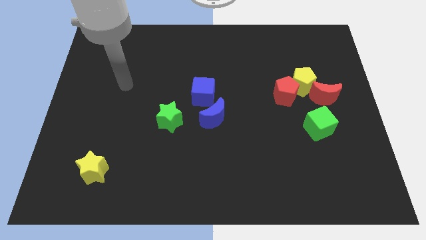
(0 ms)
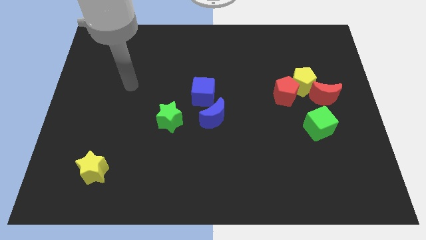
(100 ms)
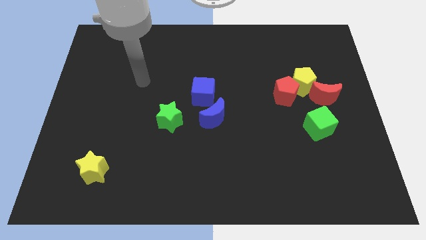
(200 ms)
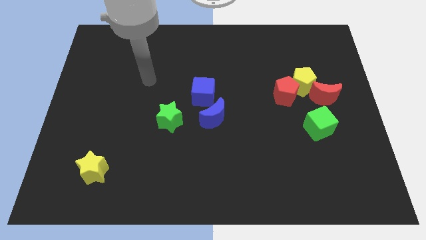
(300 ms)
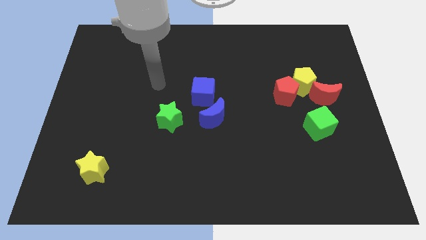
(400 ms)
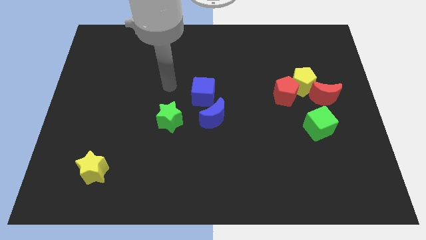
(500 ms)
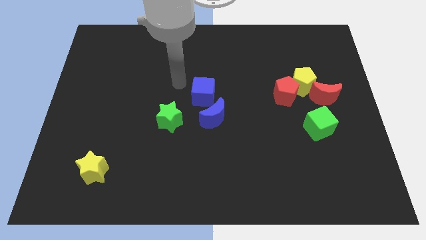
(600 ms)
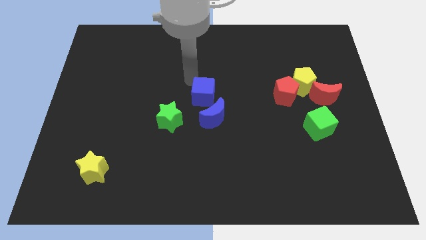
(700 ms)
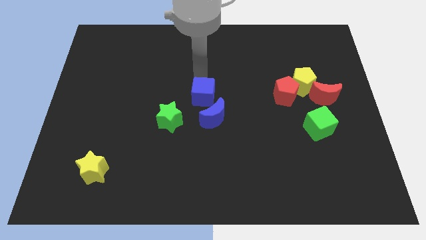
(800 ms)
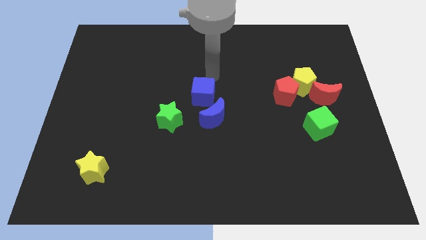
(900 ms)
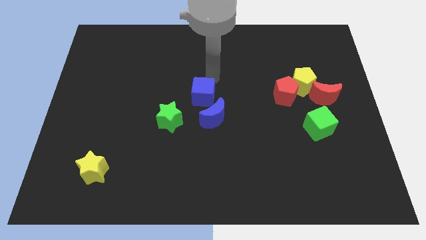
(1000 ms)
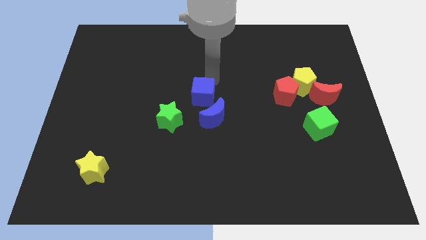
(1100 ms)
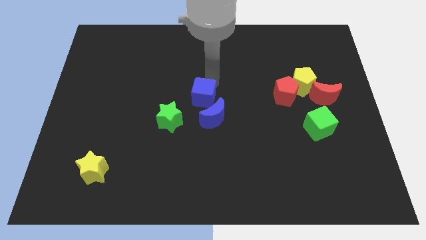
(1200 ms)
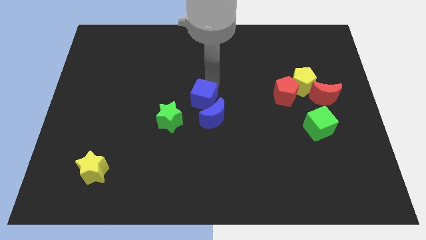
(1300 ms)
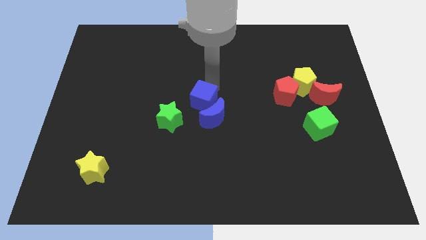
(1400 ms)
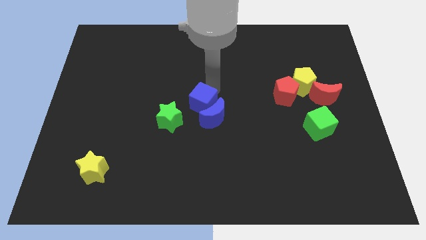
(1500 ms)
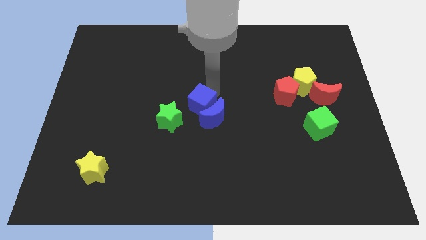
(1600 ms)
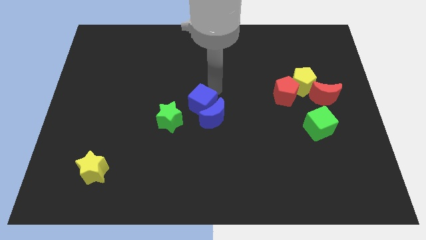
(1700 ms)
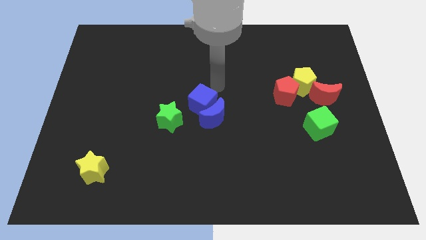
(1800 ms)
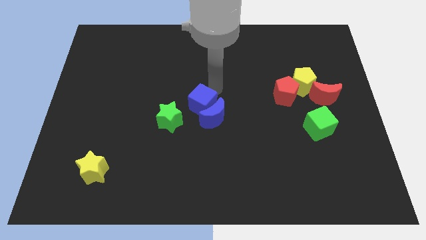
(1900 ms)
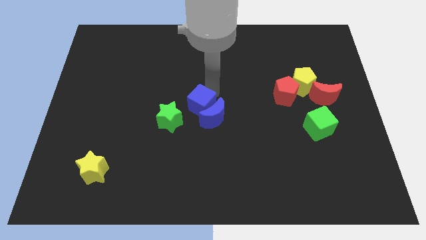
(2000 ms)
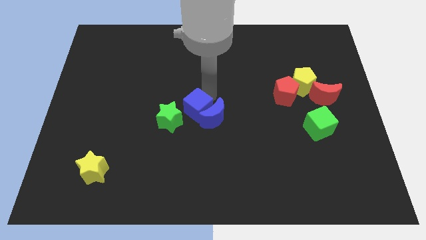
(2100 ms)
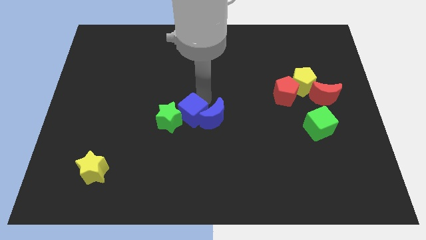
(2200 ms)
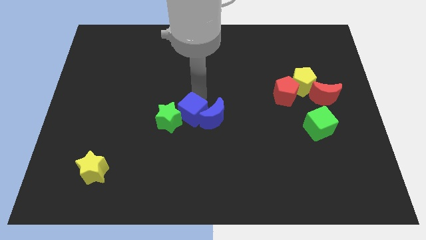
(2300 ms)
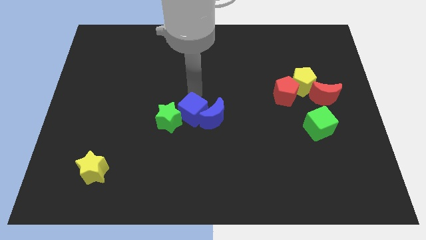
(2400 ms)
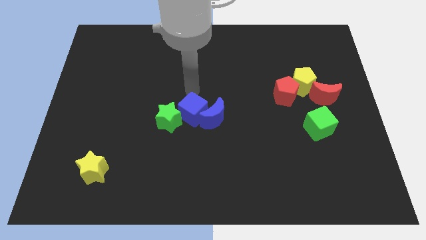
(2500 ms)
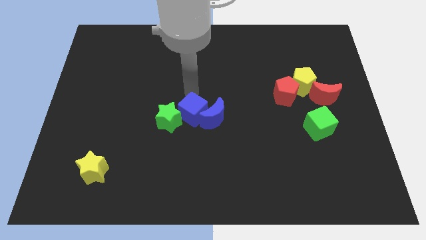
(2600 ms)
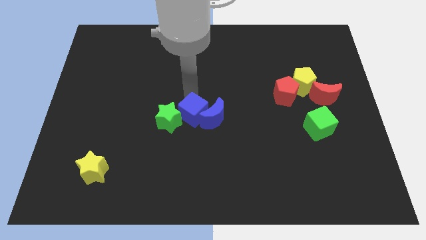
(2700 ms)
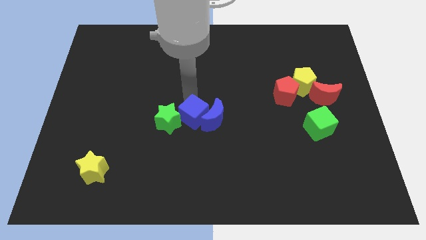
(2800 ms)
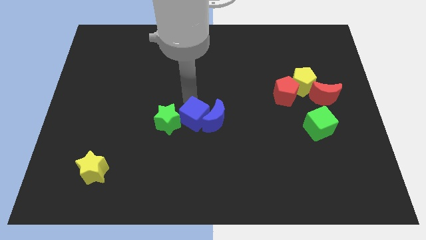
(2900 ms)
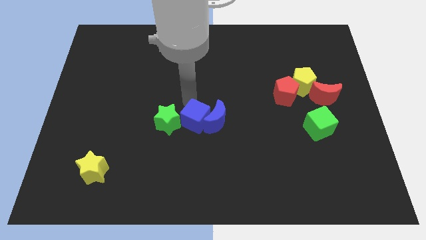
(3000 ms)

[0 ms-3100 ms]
move the blue cube slightly down

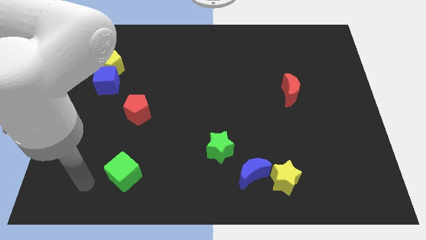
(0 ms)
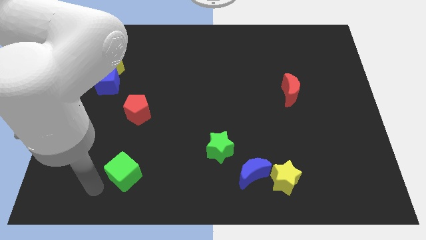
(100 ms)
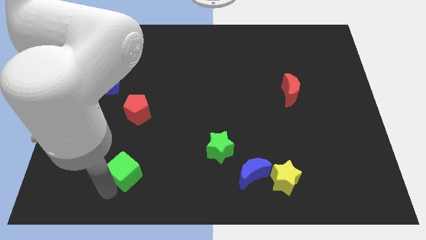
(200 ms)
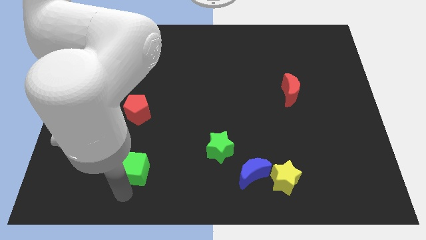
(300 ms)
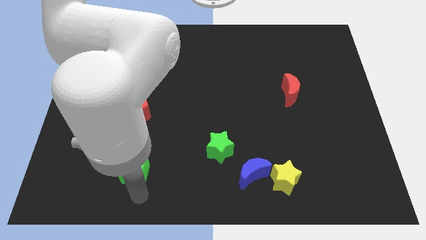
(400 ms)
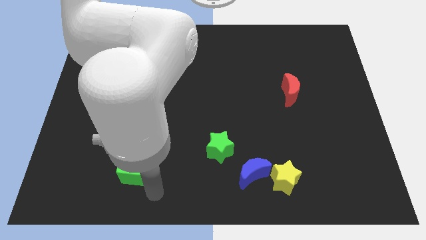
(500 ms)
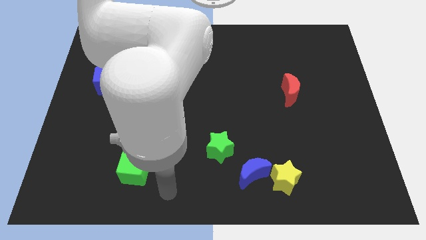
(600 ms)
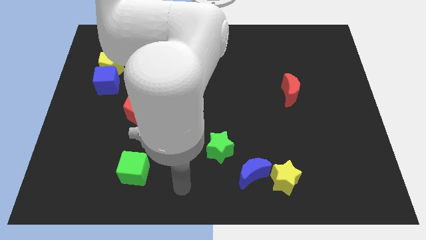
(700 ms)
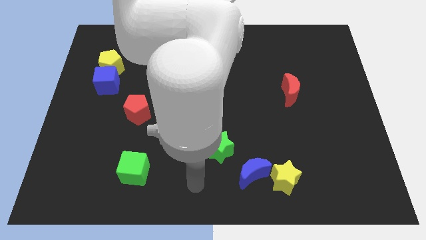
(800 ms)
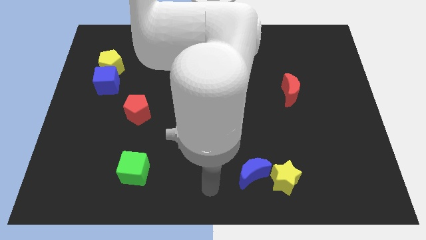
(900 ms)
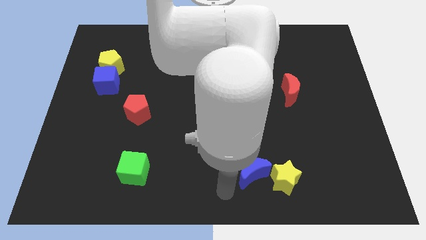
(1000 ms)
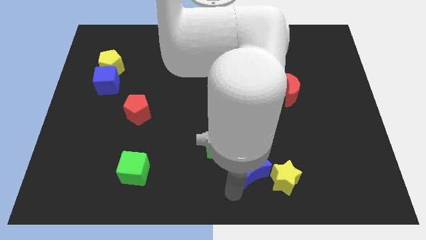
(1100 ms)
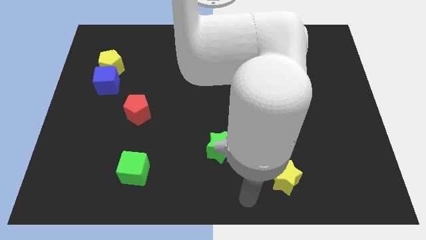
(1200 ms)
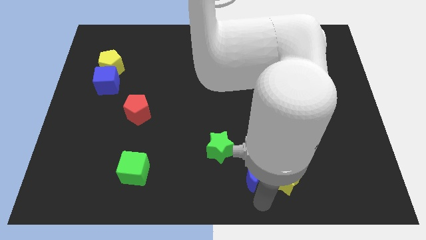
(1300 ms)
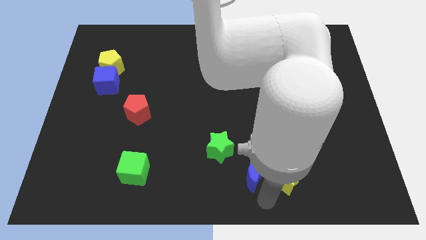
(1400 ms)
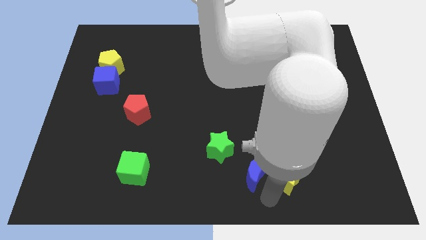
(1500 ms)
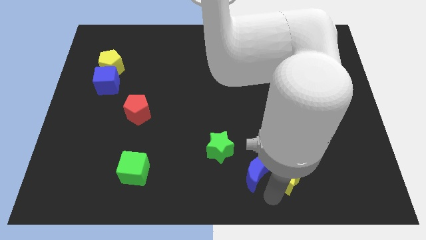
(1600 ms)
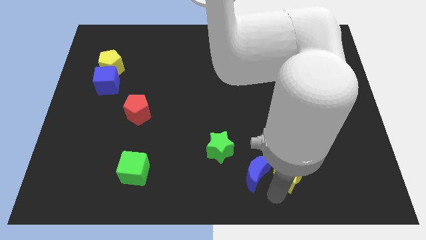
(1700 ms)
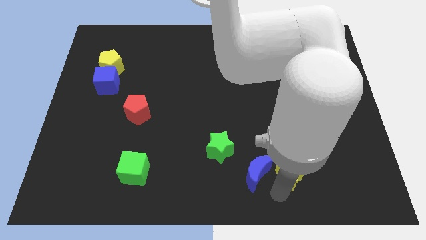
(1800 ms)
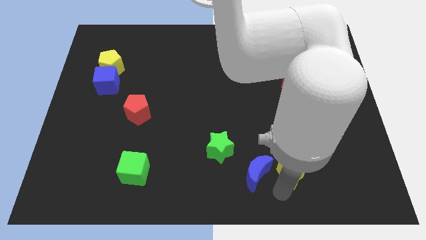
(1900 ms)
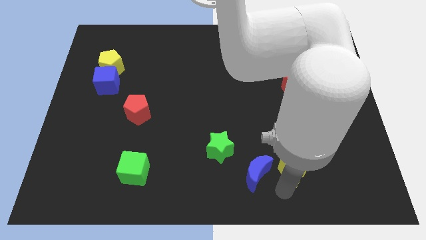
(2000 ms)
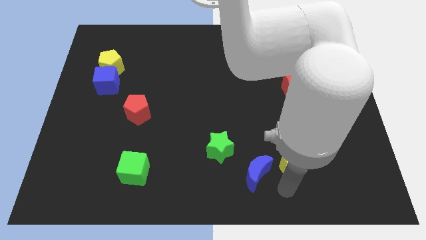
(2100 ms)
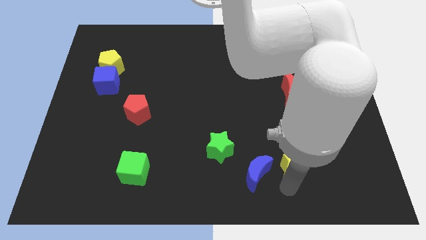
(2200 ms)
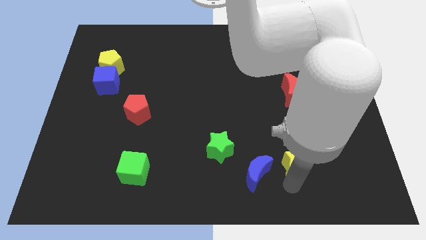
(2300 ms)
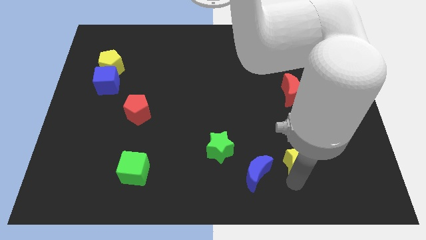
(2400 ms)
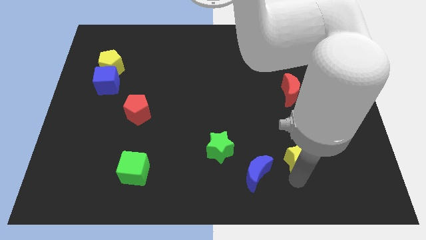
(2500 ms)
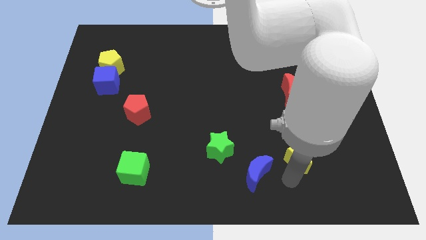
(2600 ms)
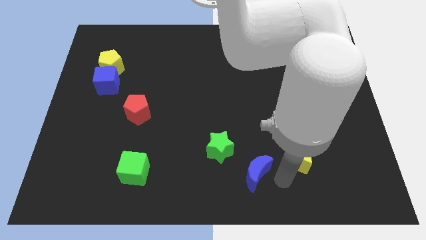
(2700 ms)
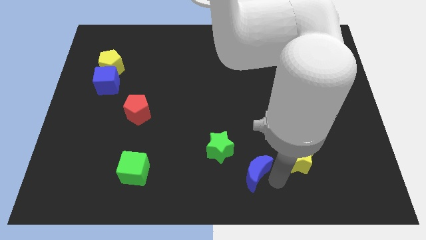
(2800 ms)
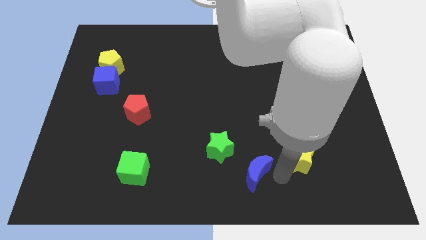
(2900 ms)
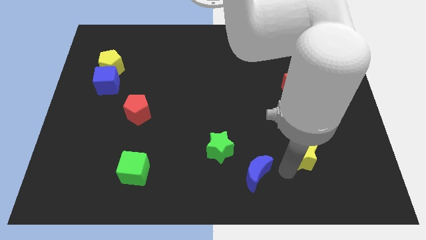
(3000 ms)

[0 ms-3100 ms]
slide the yellow star upwards and then to the right slightly

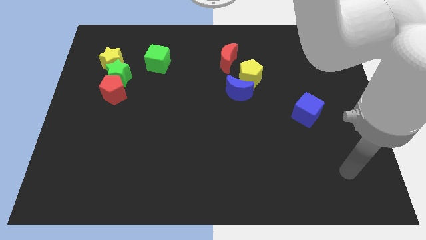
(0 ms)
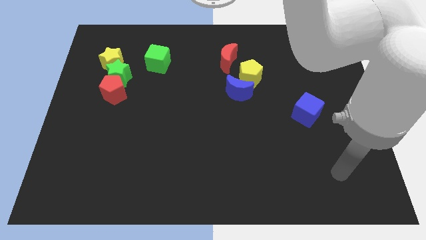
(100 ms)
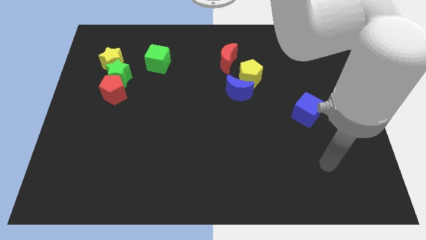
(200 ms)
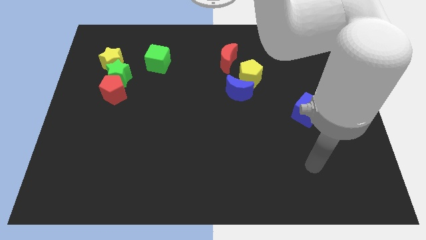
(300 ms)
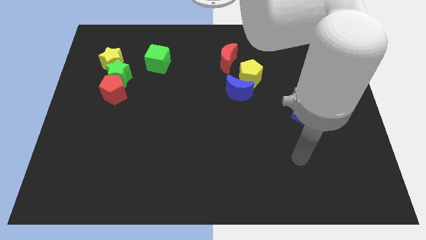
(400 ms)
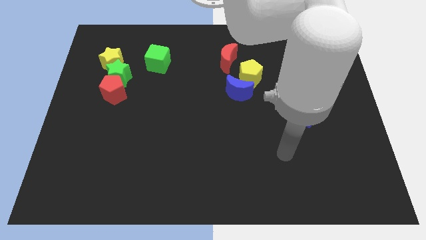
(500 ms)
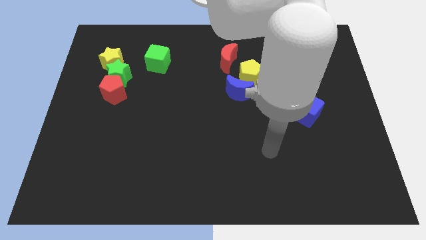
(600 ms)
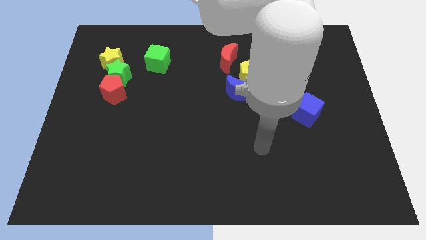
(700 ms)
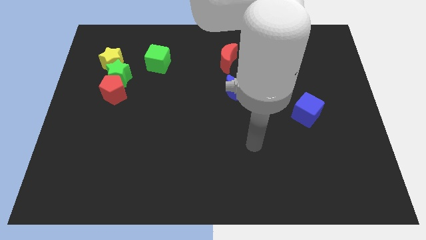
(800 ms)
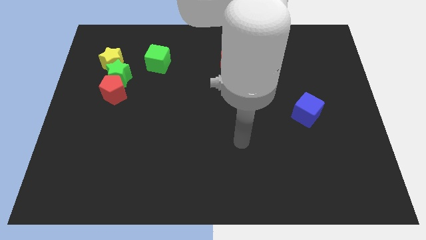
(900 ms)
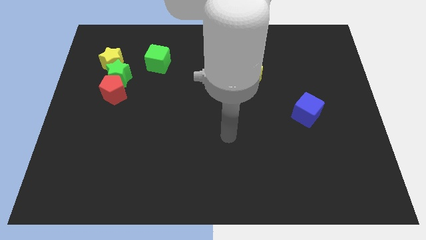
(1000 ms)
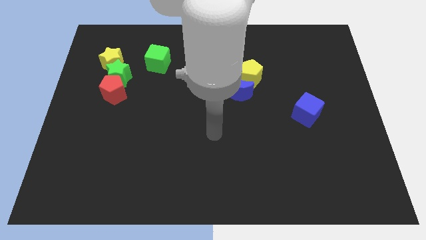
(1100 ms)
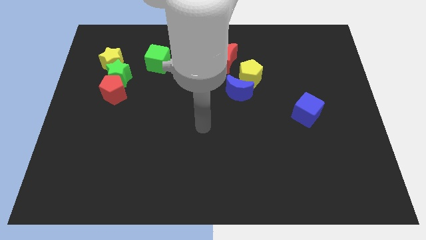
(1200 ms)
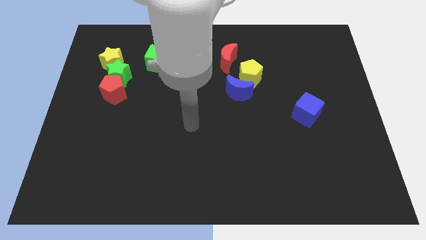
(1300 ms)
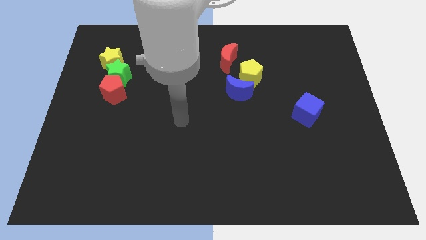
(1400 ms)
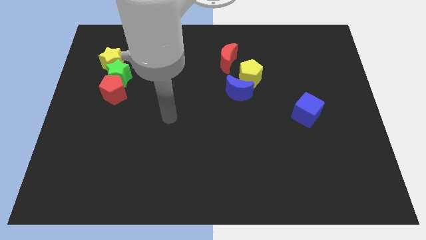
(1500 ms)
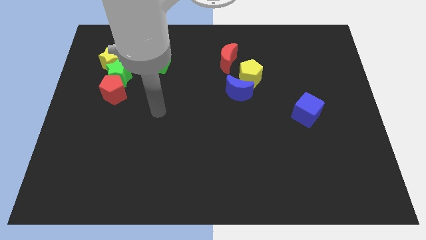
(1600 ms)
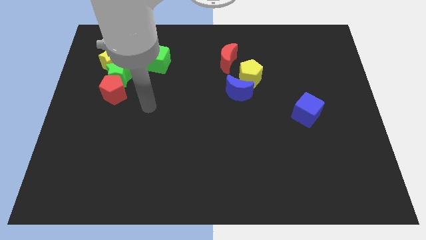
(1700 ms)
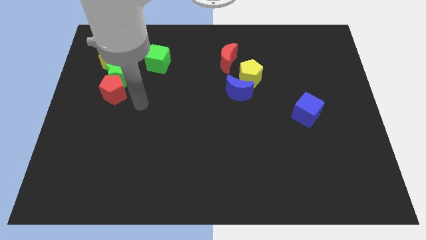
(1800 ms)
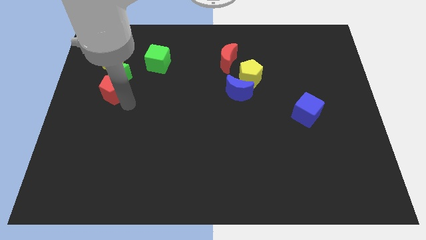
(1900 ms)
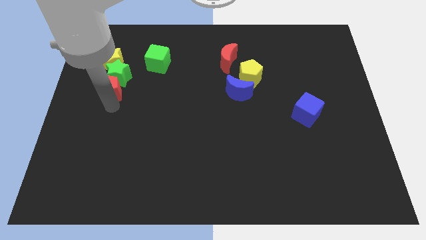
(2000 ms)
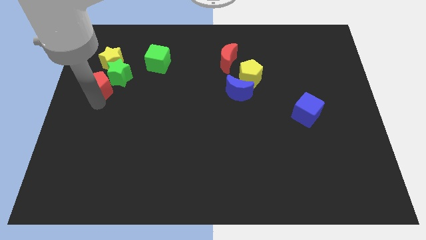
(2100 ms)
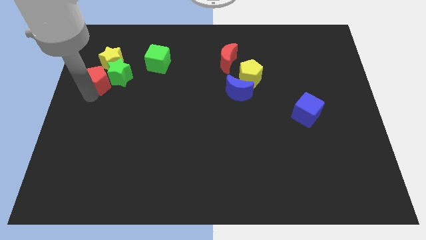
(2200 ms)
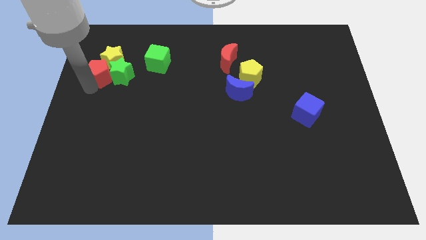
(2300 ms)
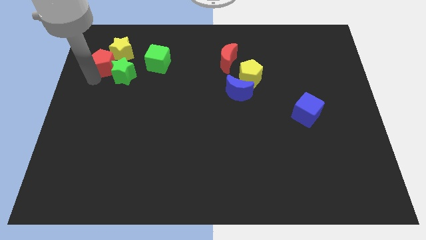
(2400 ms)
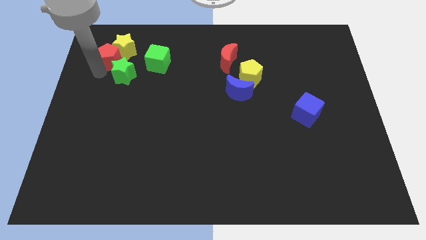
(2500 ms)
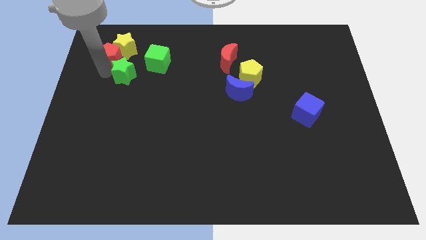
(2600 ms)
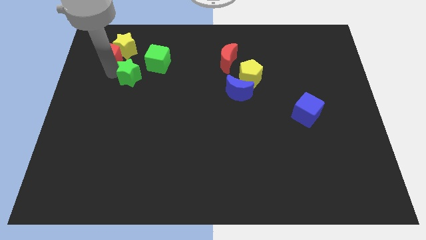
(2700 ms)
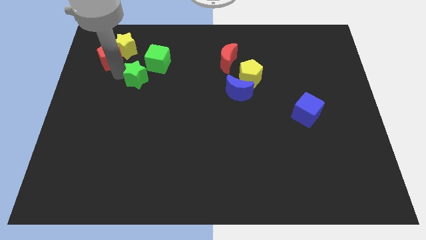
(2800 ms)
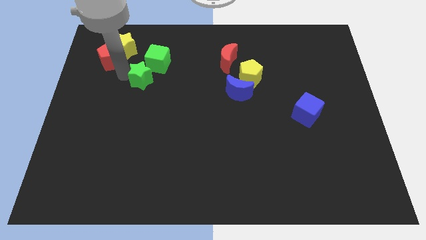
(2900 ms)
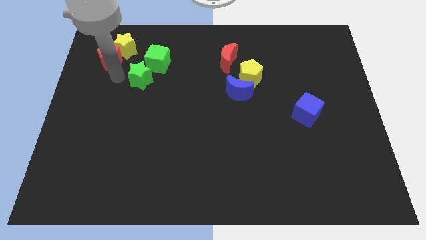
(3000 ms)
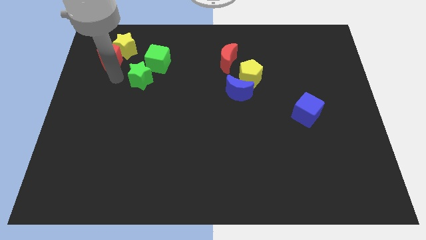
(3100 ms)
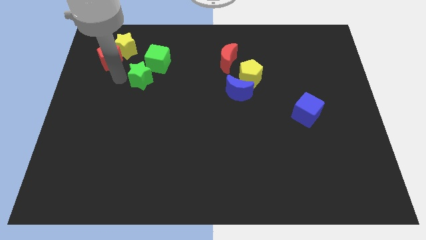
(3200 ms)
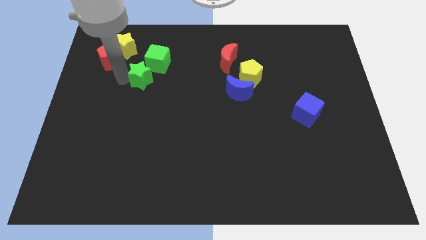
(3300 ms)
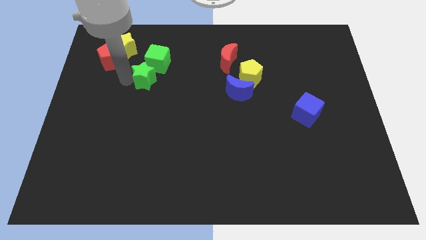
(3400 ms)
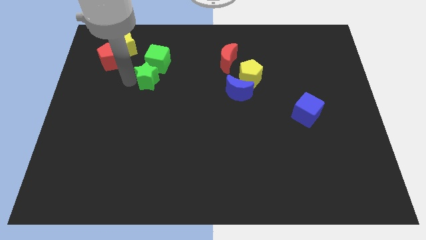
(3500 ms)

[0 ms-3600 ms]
slide the green star to the right a little
